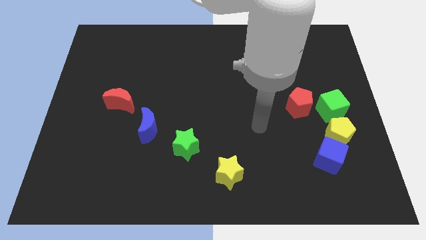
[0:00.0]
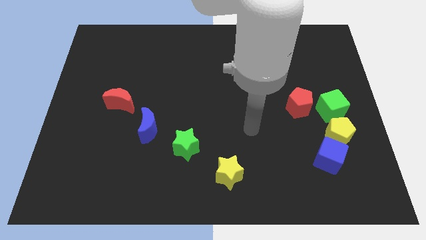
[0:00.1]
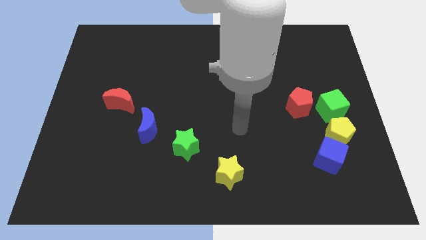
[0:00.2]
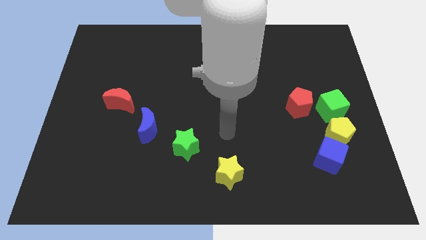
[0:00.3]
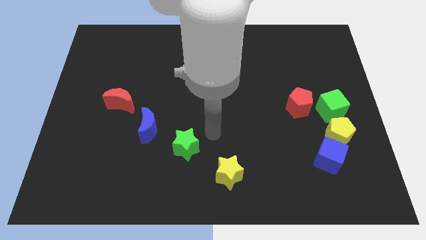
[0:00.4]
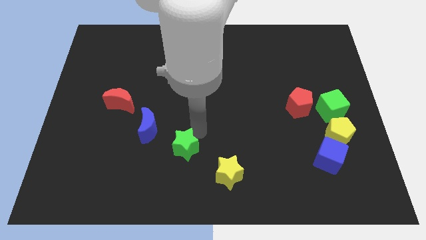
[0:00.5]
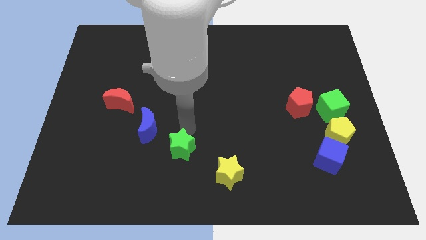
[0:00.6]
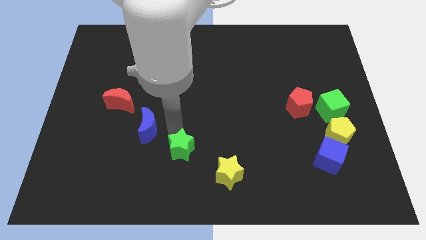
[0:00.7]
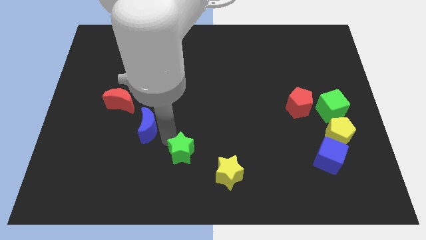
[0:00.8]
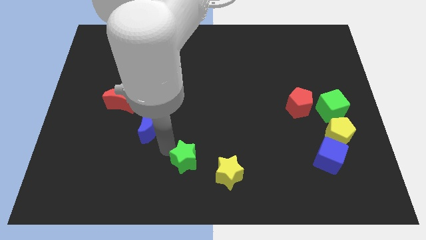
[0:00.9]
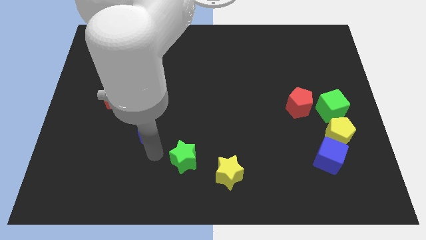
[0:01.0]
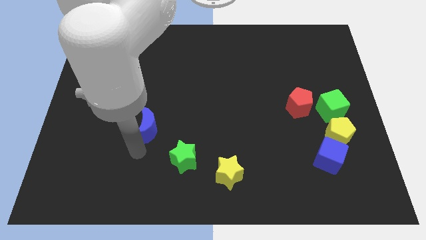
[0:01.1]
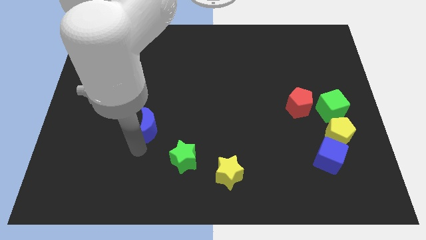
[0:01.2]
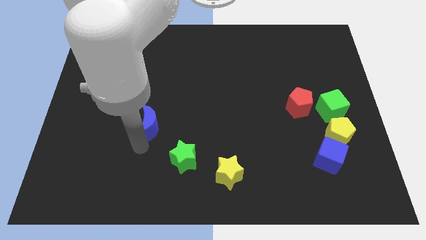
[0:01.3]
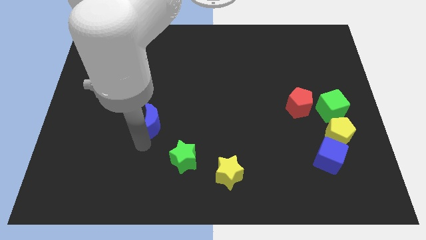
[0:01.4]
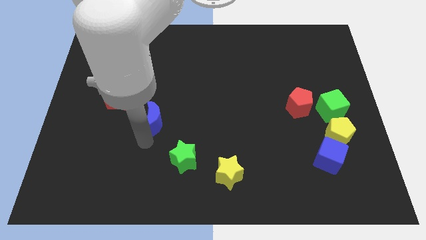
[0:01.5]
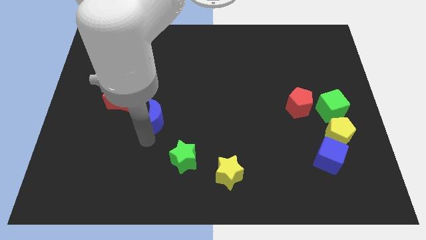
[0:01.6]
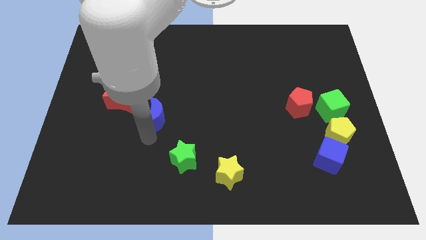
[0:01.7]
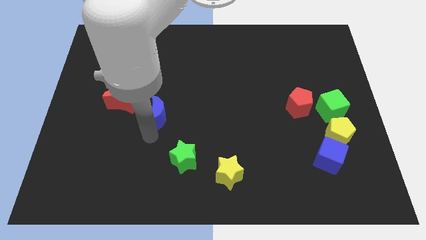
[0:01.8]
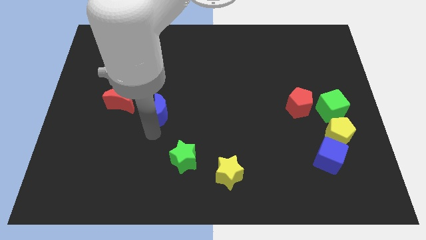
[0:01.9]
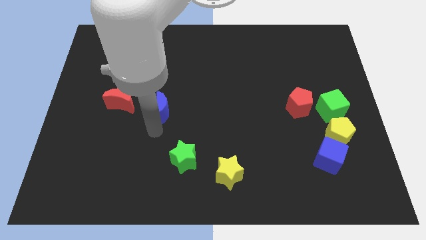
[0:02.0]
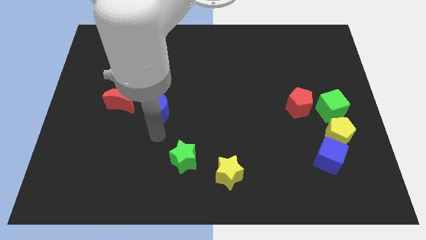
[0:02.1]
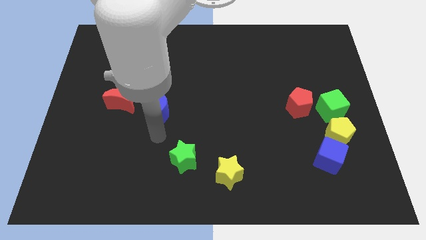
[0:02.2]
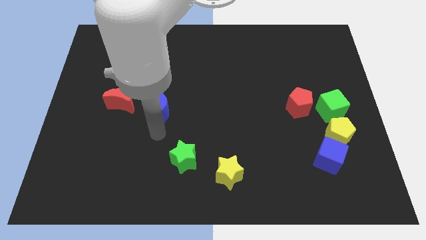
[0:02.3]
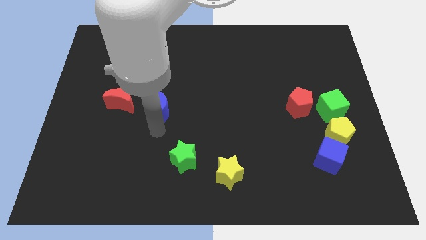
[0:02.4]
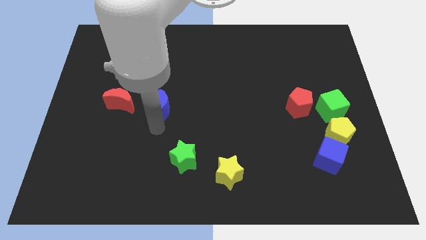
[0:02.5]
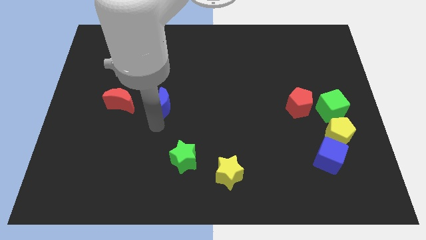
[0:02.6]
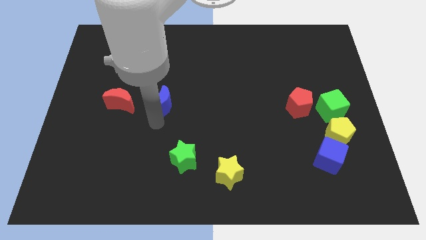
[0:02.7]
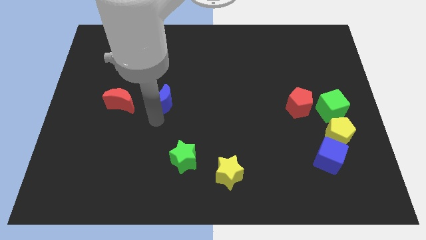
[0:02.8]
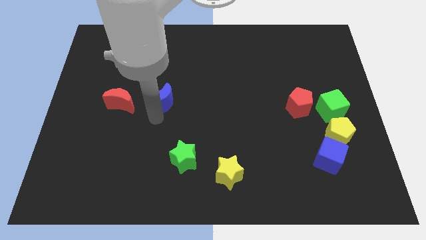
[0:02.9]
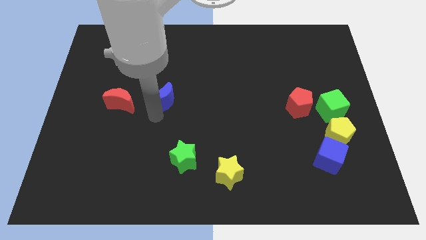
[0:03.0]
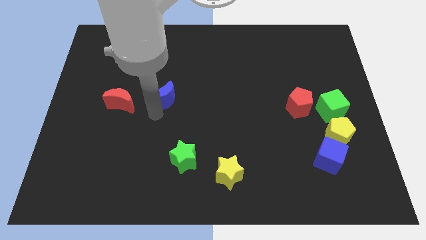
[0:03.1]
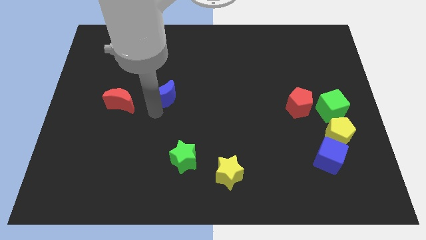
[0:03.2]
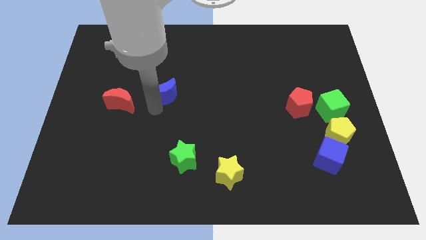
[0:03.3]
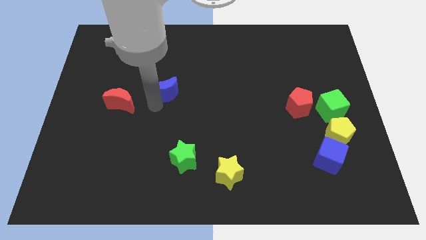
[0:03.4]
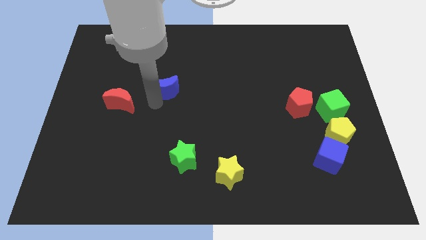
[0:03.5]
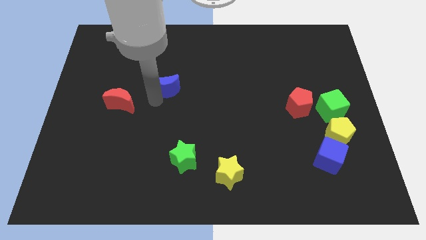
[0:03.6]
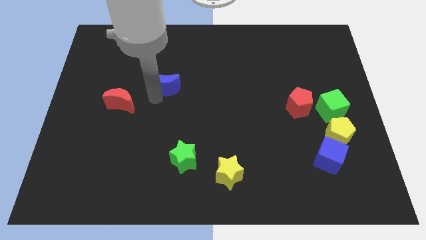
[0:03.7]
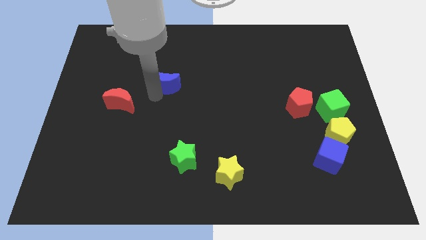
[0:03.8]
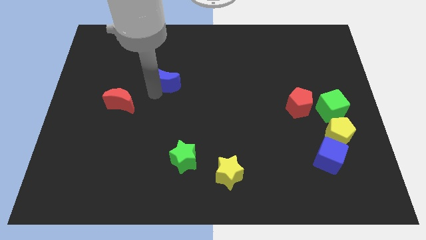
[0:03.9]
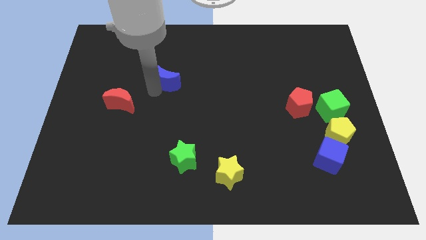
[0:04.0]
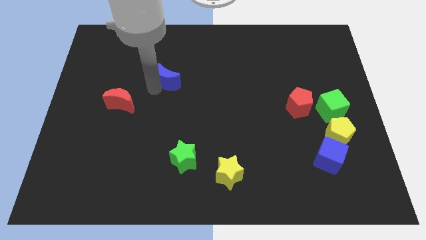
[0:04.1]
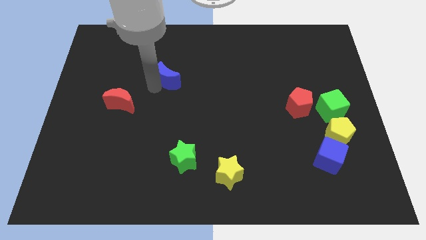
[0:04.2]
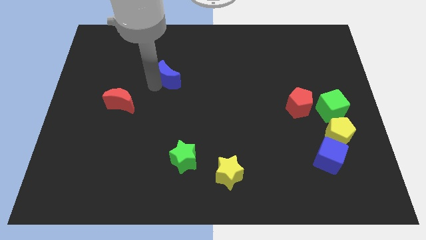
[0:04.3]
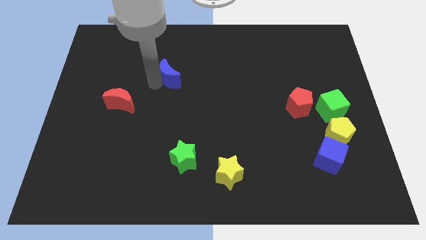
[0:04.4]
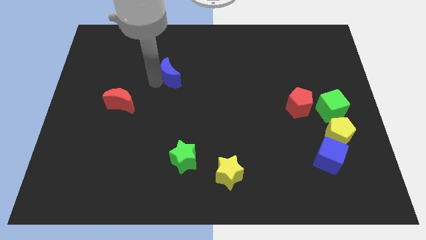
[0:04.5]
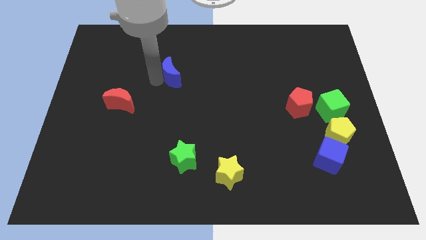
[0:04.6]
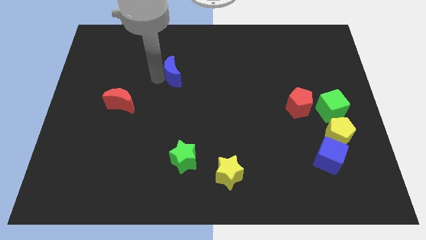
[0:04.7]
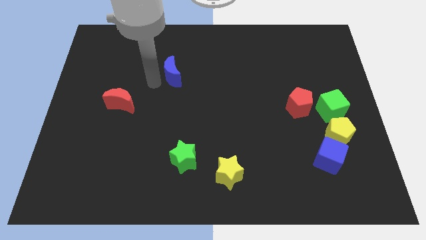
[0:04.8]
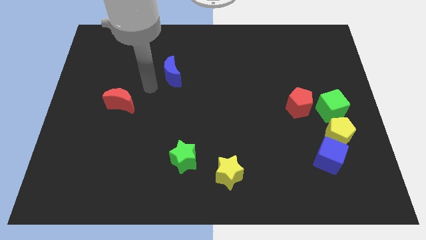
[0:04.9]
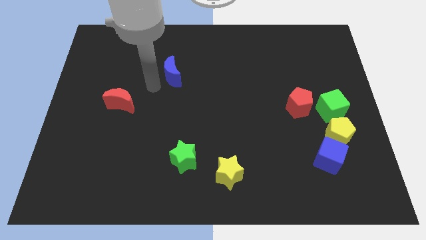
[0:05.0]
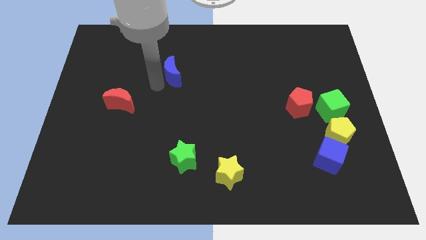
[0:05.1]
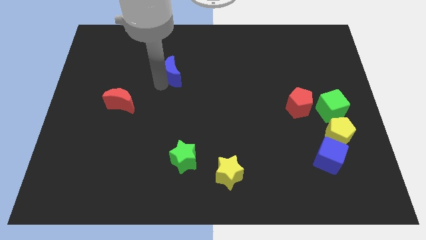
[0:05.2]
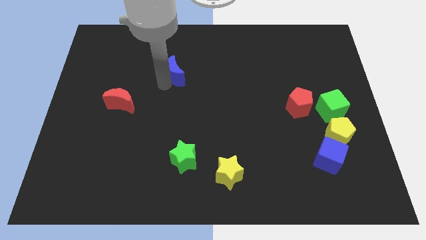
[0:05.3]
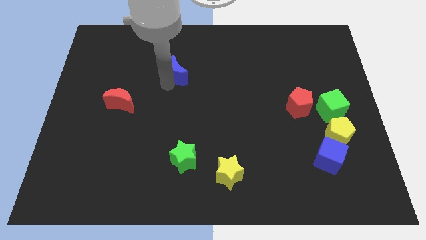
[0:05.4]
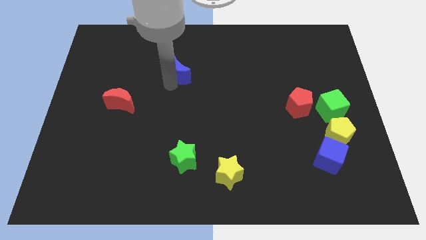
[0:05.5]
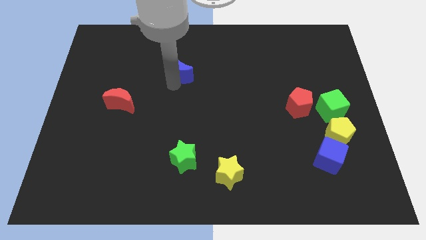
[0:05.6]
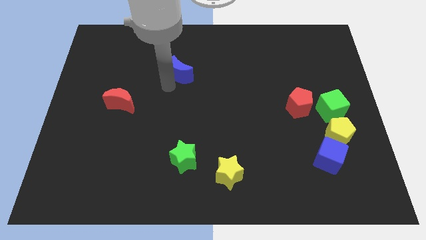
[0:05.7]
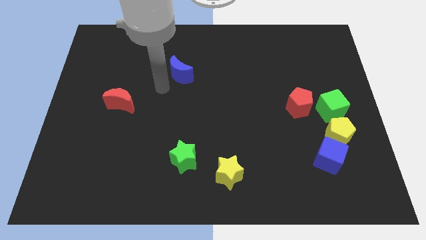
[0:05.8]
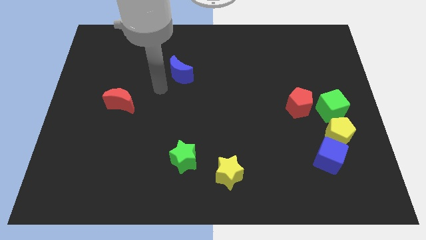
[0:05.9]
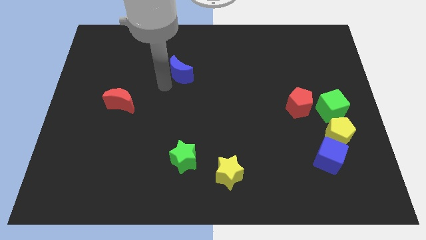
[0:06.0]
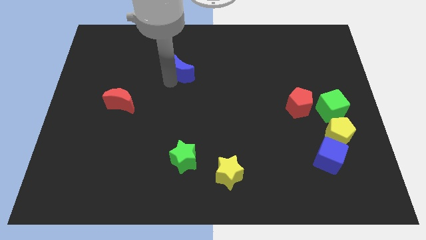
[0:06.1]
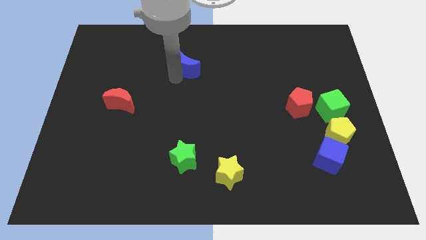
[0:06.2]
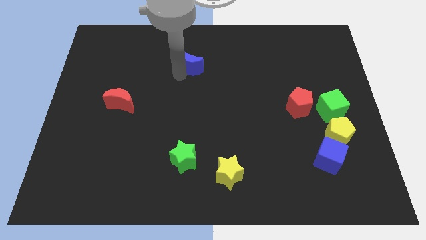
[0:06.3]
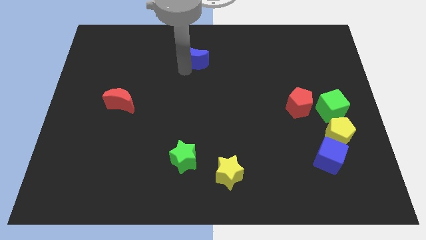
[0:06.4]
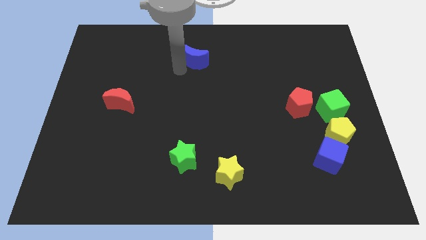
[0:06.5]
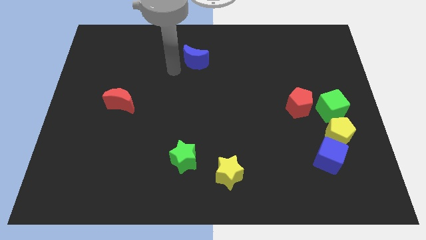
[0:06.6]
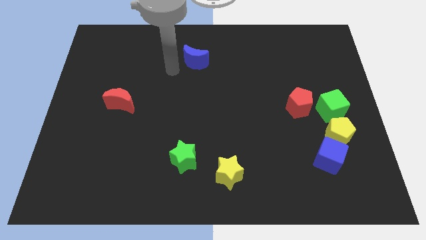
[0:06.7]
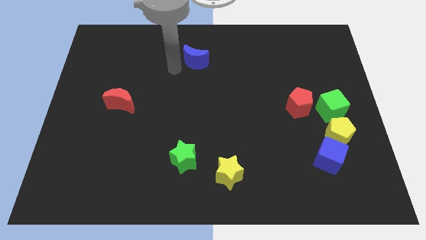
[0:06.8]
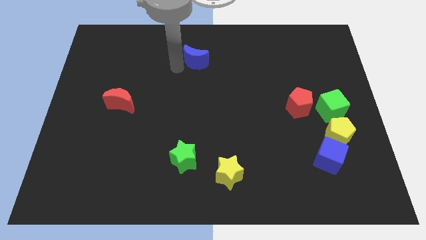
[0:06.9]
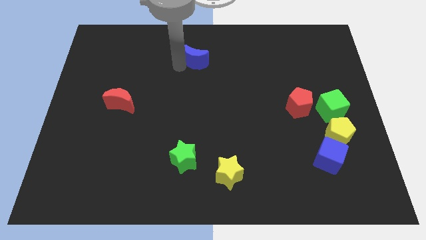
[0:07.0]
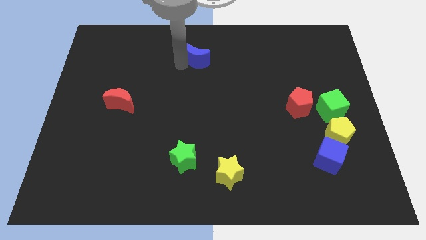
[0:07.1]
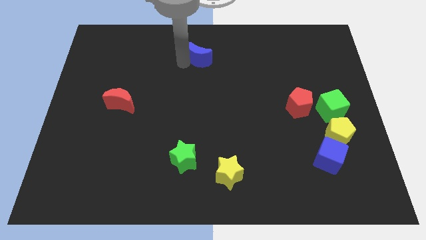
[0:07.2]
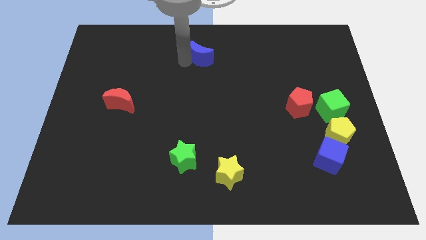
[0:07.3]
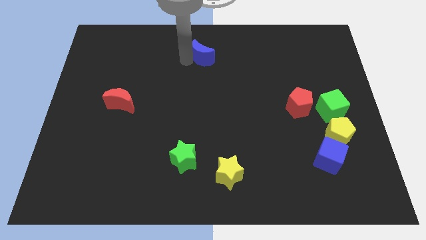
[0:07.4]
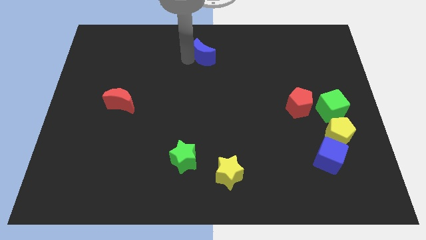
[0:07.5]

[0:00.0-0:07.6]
slide the blue moon to the towards your base
